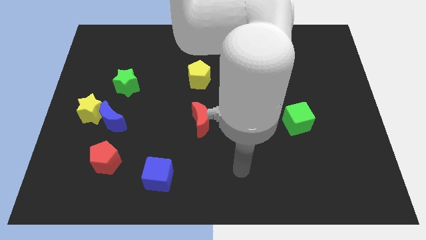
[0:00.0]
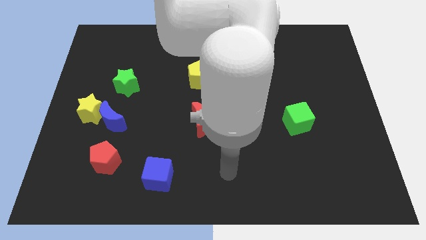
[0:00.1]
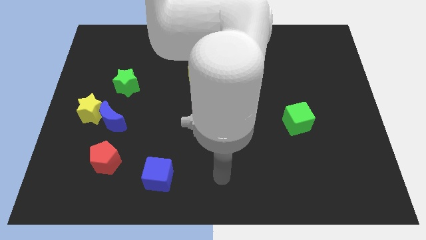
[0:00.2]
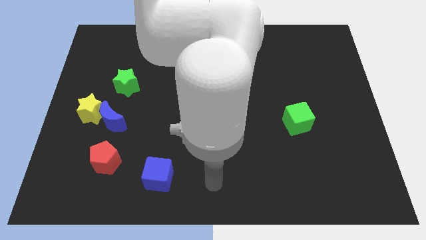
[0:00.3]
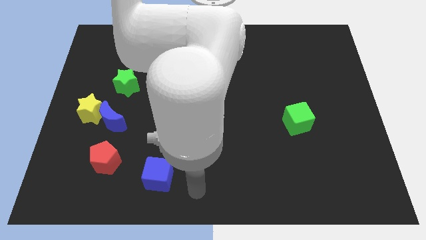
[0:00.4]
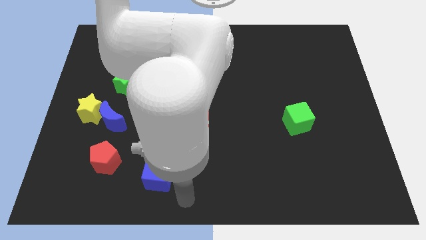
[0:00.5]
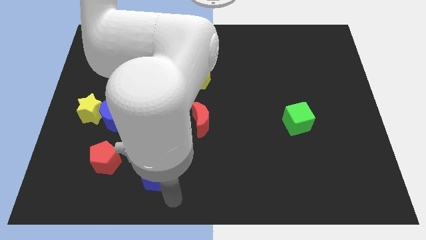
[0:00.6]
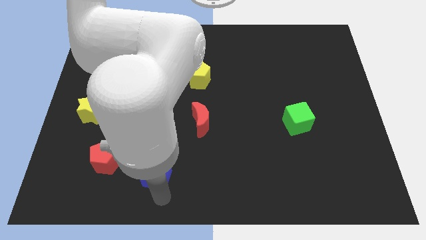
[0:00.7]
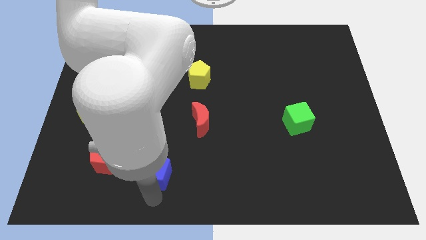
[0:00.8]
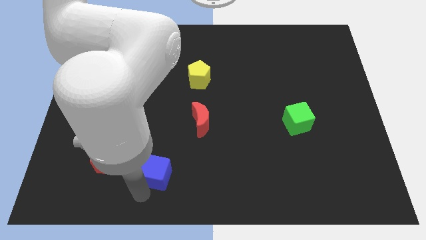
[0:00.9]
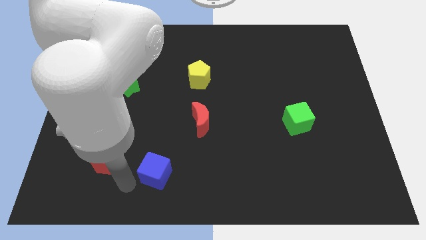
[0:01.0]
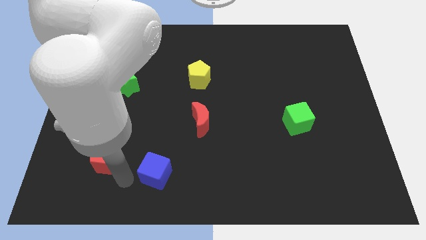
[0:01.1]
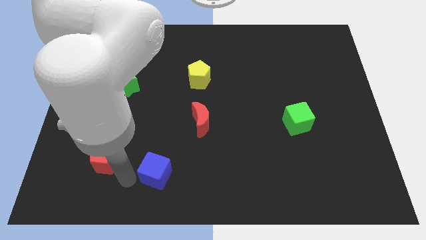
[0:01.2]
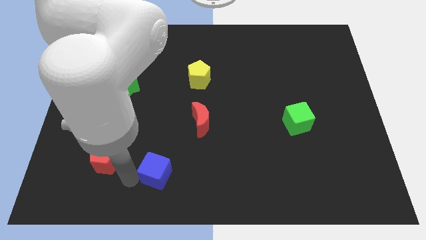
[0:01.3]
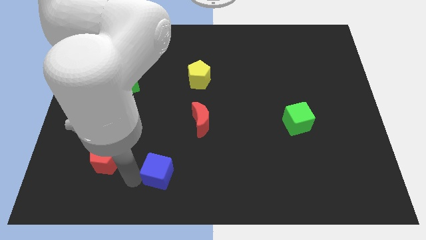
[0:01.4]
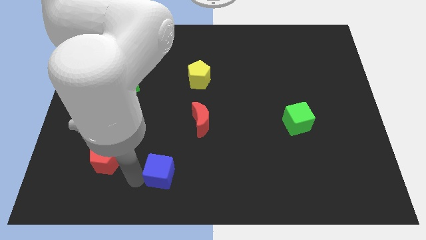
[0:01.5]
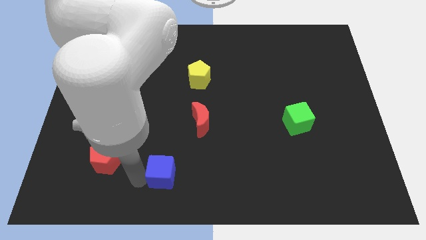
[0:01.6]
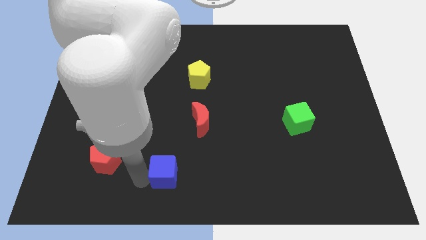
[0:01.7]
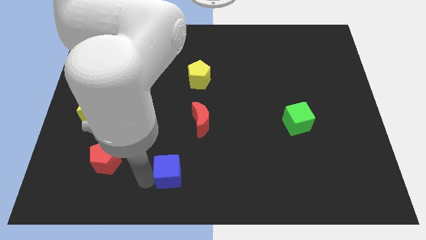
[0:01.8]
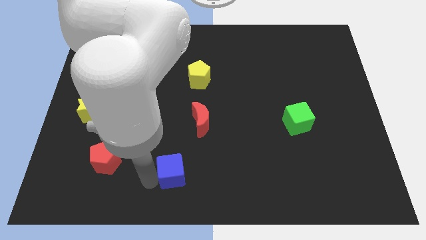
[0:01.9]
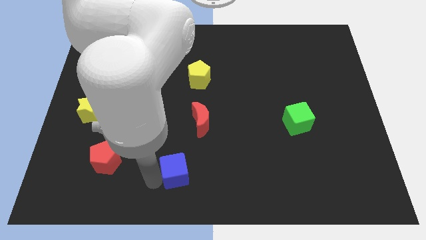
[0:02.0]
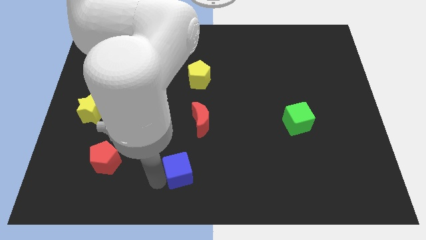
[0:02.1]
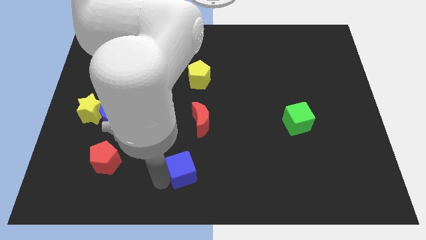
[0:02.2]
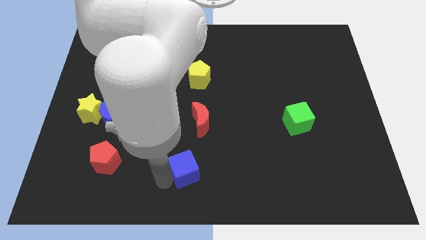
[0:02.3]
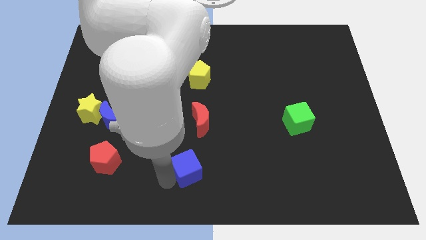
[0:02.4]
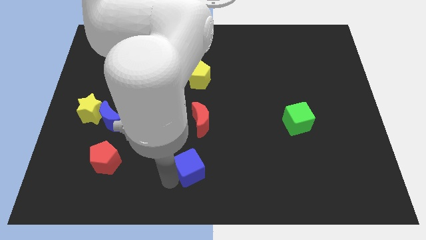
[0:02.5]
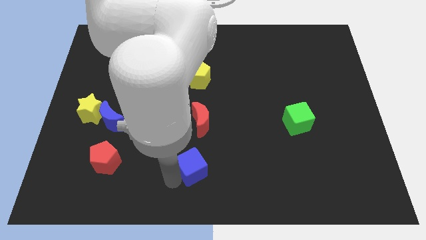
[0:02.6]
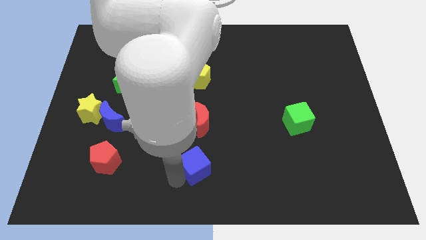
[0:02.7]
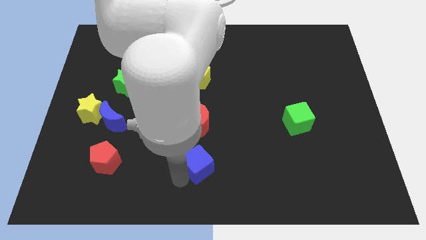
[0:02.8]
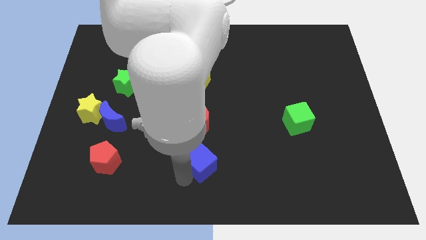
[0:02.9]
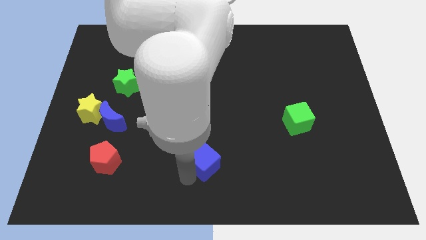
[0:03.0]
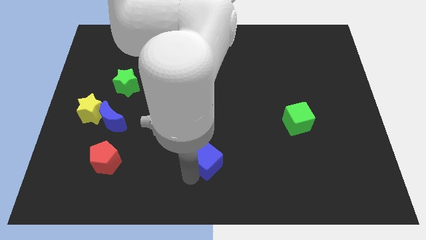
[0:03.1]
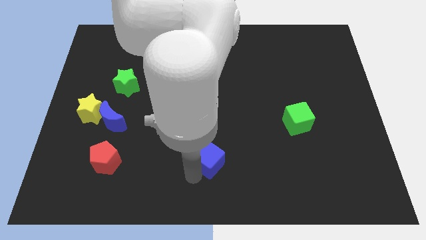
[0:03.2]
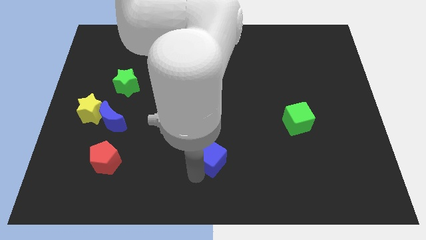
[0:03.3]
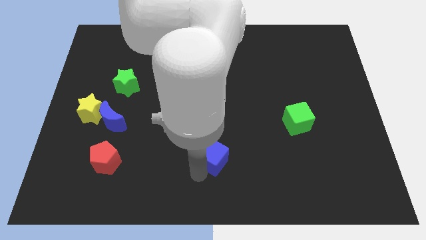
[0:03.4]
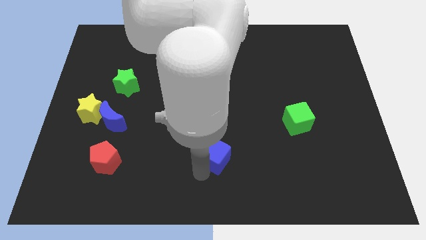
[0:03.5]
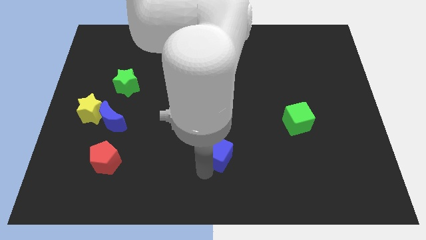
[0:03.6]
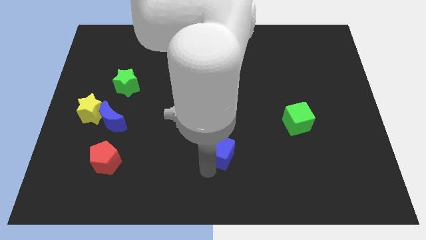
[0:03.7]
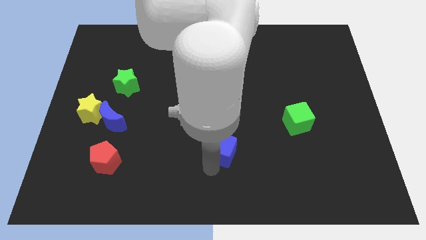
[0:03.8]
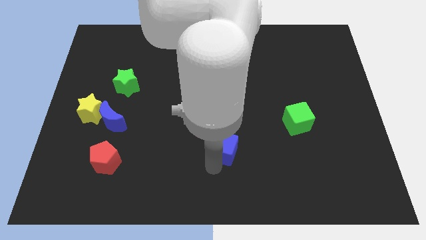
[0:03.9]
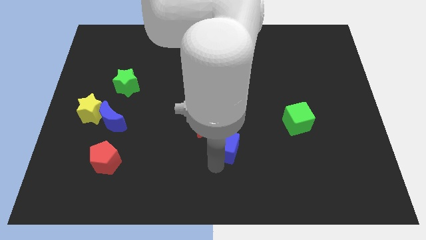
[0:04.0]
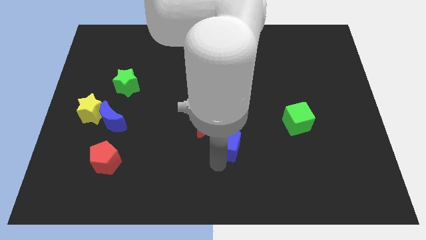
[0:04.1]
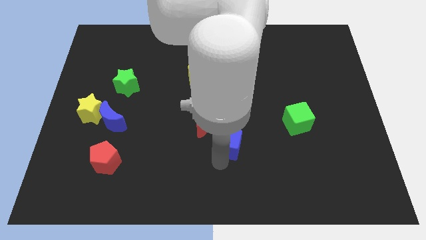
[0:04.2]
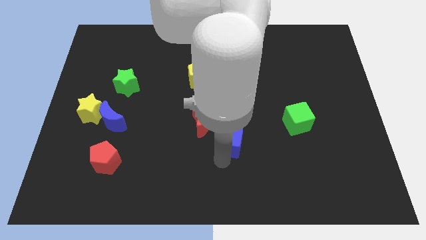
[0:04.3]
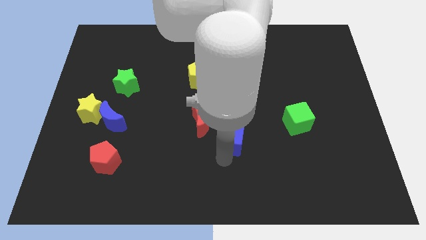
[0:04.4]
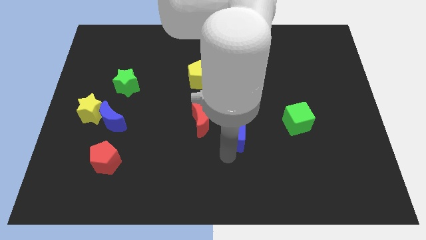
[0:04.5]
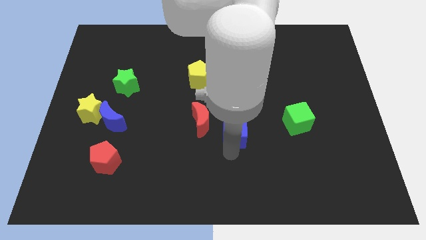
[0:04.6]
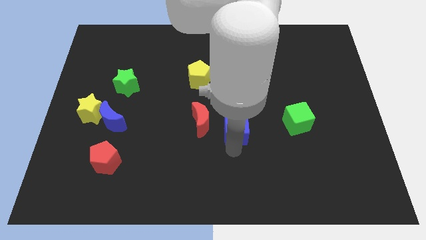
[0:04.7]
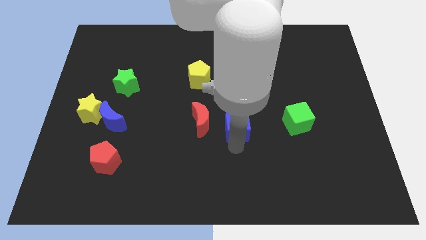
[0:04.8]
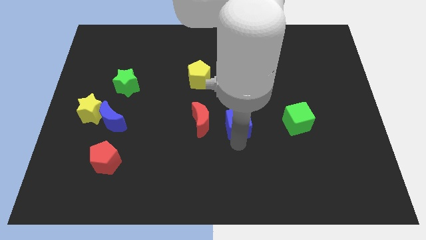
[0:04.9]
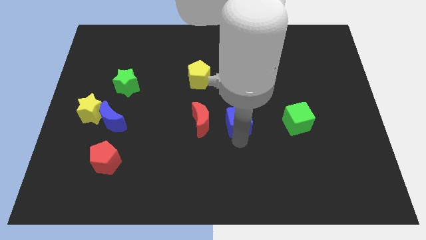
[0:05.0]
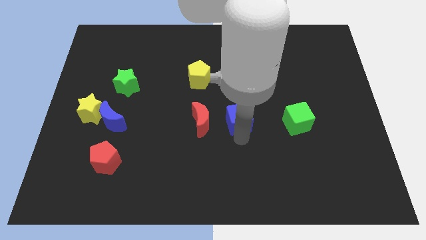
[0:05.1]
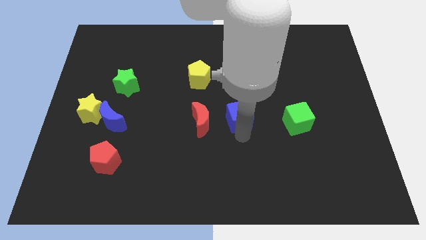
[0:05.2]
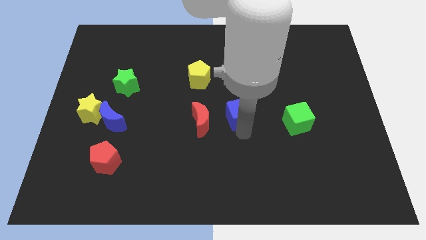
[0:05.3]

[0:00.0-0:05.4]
put the blue cube to the top right side of the red moon

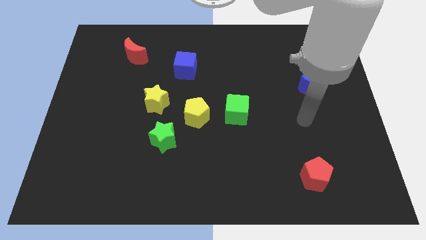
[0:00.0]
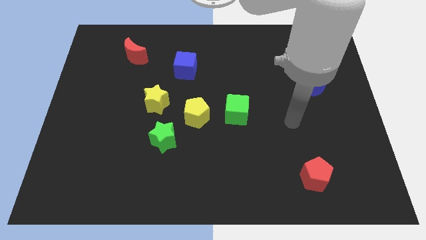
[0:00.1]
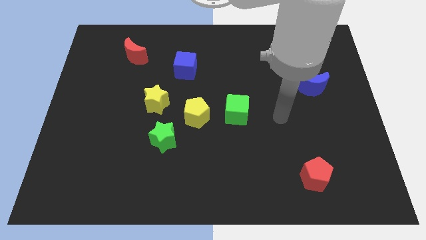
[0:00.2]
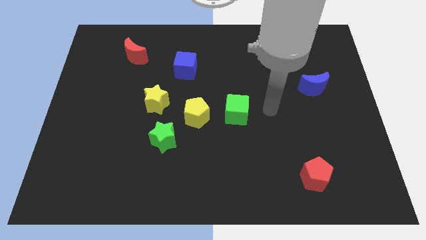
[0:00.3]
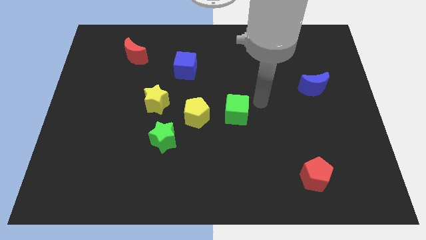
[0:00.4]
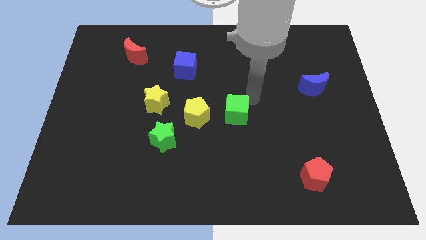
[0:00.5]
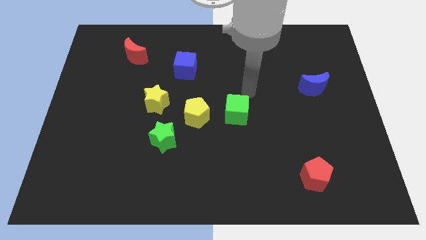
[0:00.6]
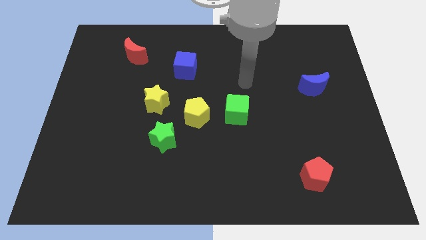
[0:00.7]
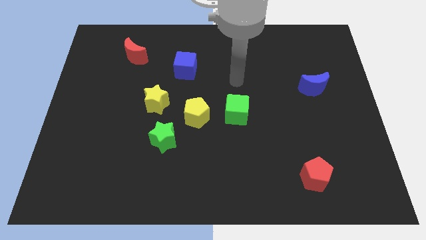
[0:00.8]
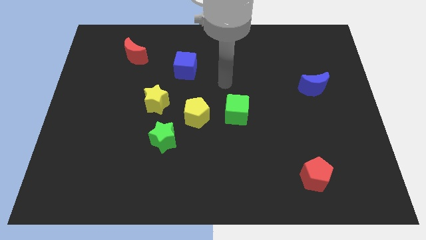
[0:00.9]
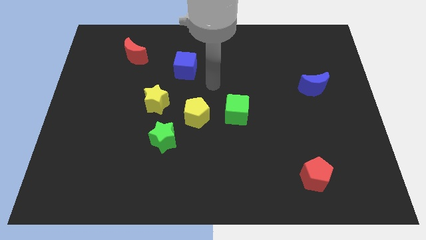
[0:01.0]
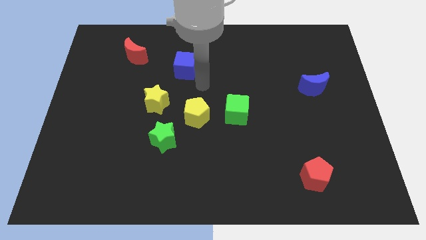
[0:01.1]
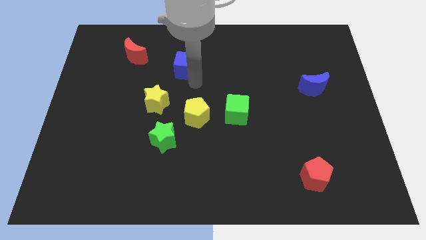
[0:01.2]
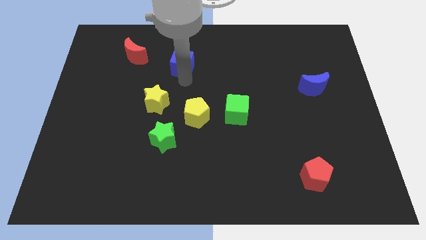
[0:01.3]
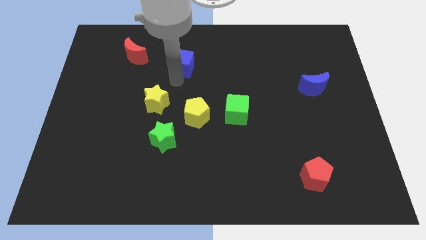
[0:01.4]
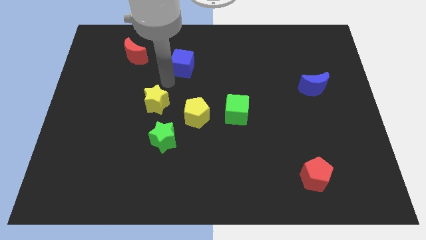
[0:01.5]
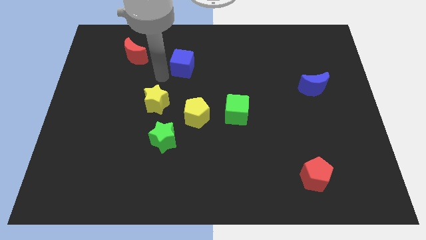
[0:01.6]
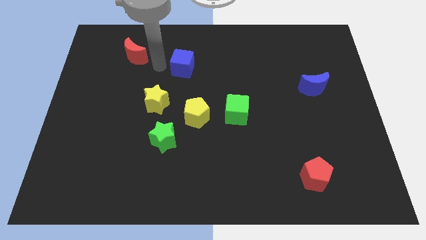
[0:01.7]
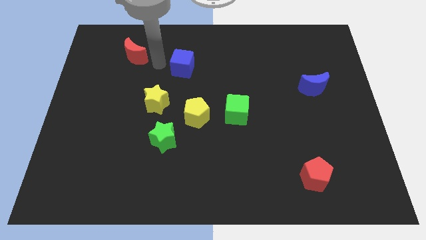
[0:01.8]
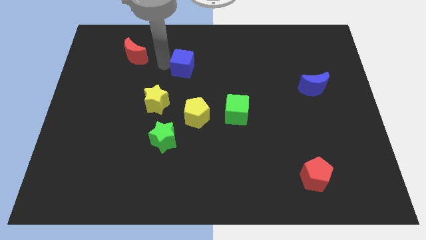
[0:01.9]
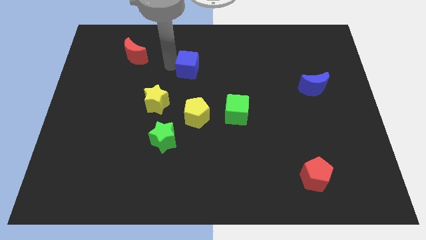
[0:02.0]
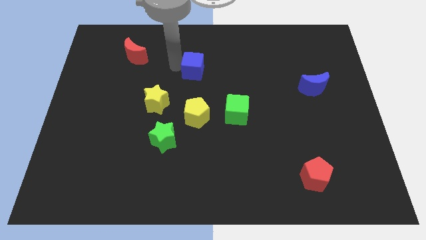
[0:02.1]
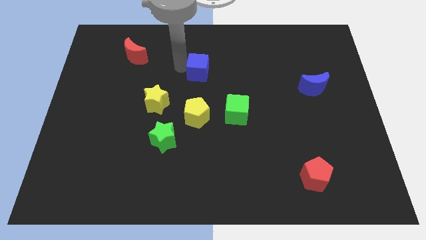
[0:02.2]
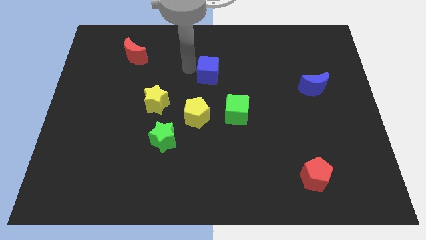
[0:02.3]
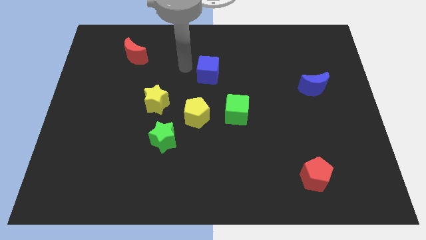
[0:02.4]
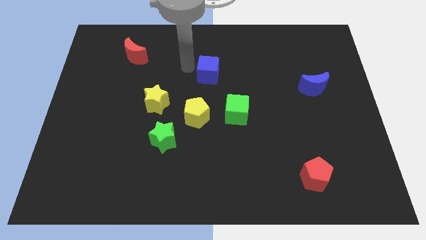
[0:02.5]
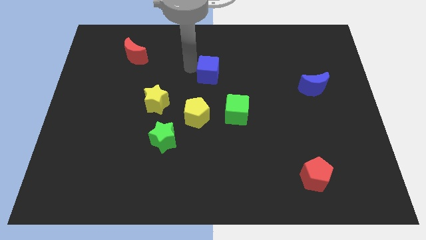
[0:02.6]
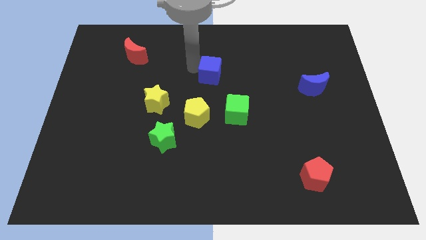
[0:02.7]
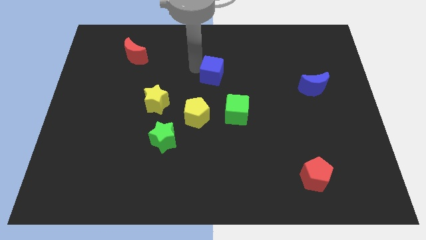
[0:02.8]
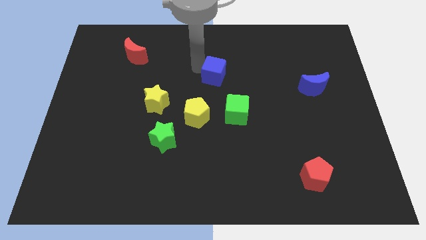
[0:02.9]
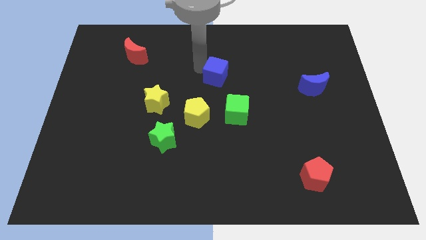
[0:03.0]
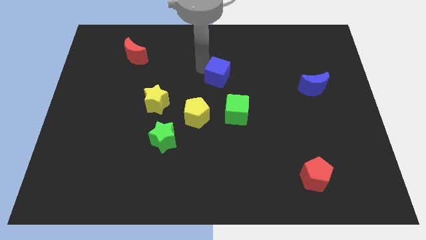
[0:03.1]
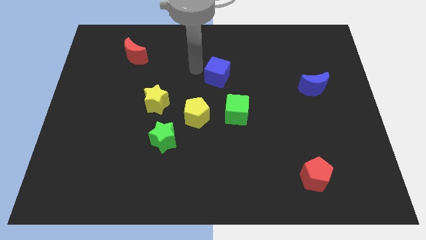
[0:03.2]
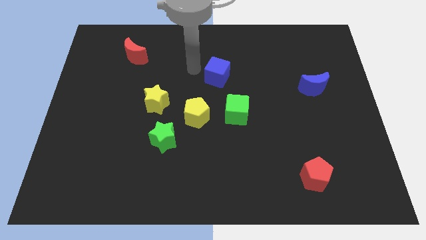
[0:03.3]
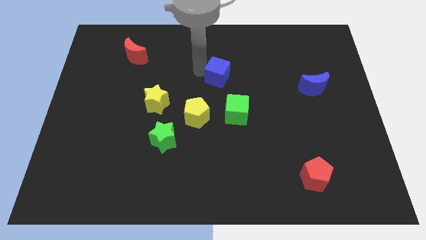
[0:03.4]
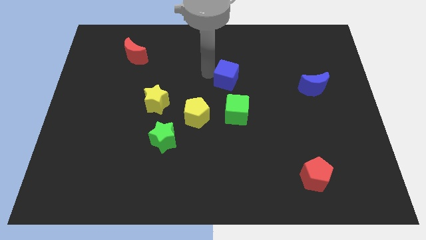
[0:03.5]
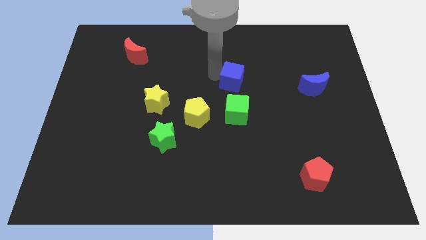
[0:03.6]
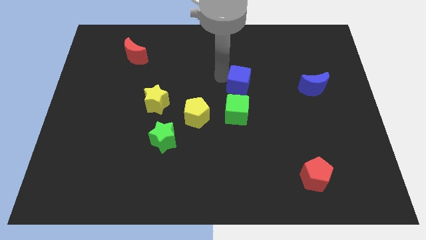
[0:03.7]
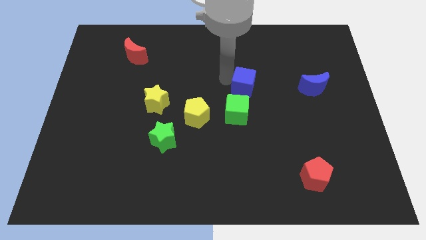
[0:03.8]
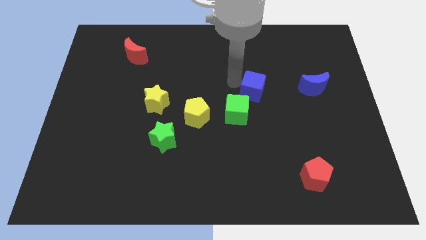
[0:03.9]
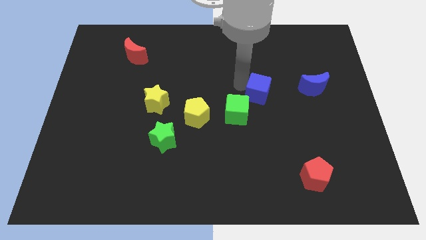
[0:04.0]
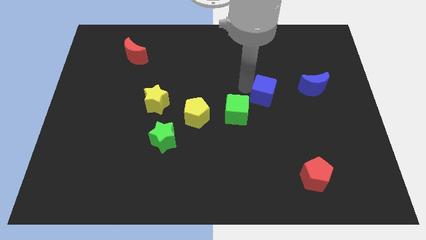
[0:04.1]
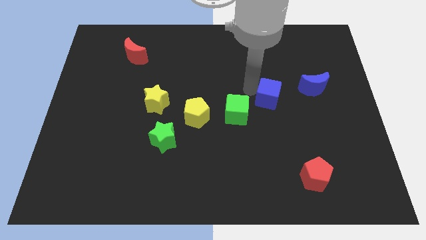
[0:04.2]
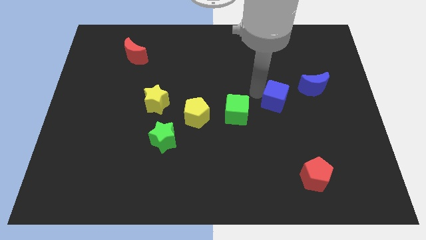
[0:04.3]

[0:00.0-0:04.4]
push the blue cube diagonally down and to the left of the blue moon
